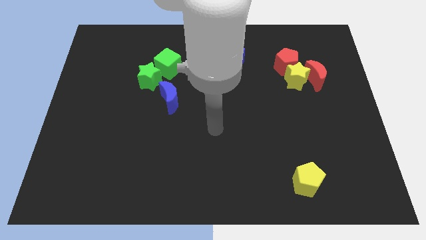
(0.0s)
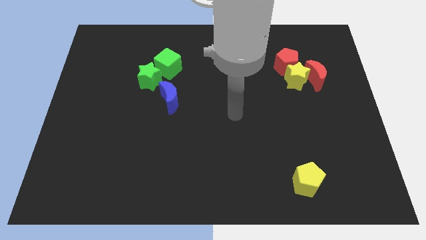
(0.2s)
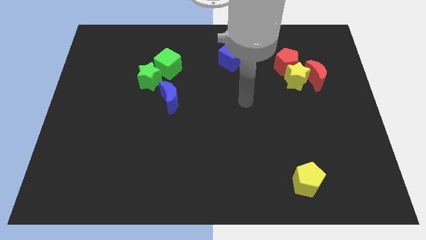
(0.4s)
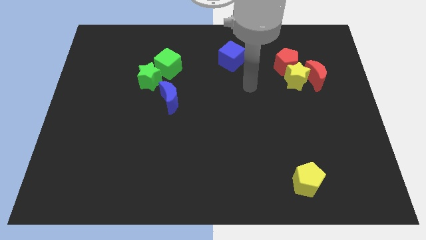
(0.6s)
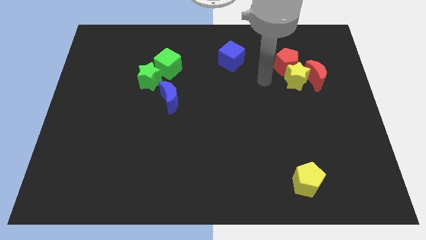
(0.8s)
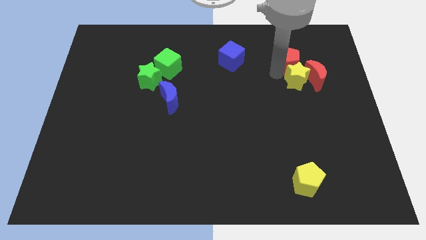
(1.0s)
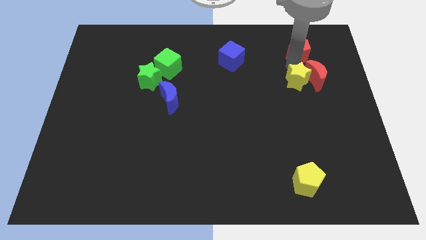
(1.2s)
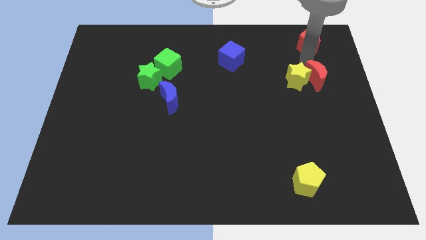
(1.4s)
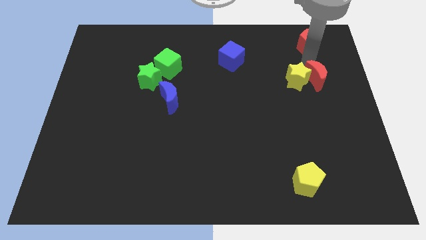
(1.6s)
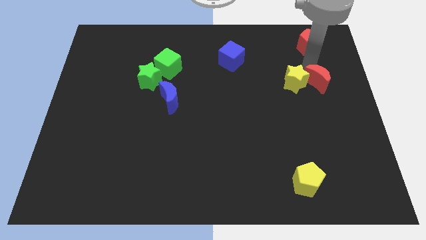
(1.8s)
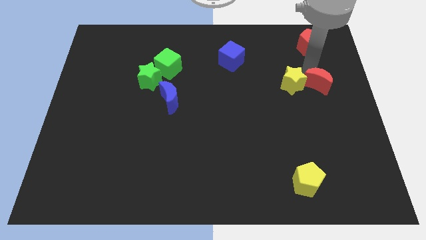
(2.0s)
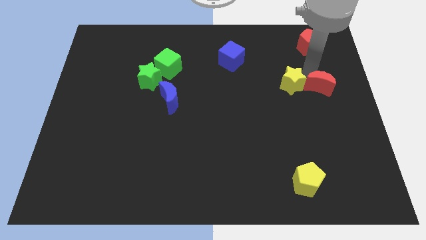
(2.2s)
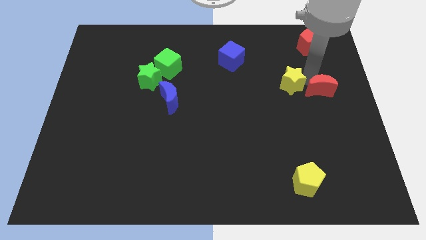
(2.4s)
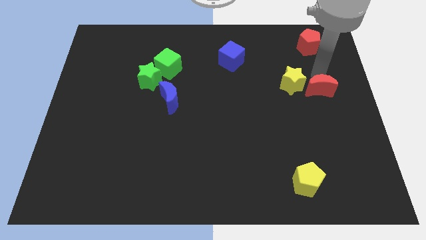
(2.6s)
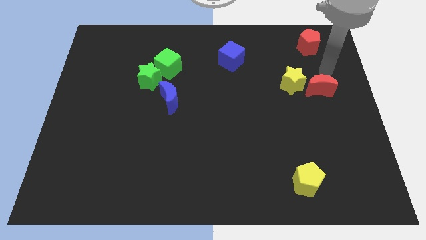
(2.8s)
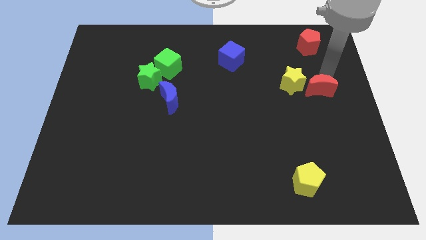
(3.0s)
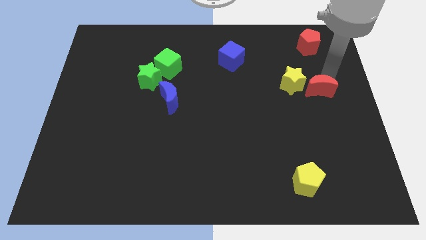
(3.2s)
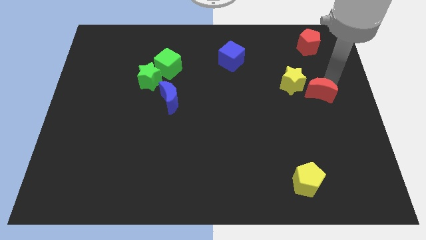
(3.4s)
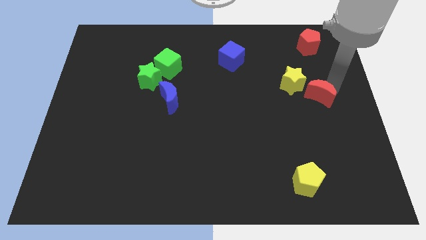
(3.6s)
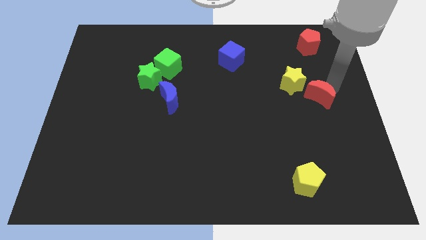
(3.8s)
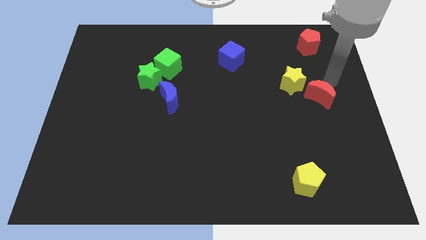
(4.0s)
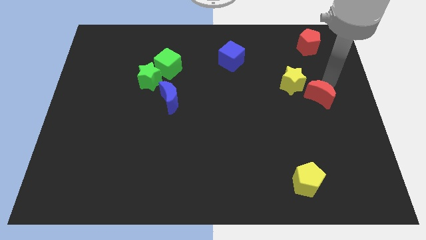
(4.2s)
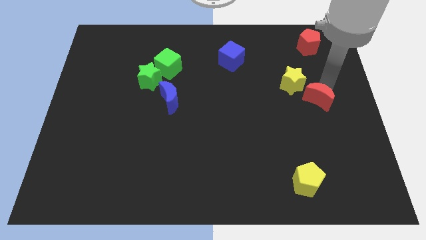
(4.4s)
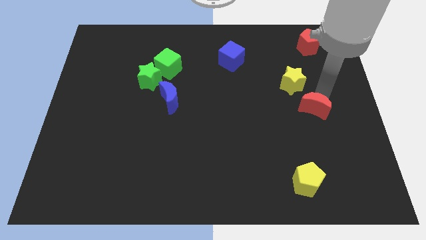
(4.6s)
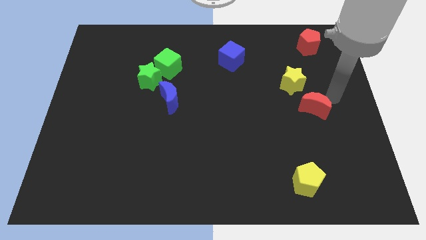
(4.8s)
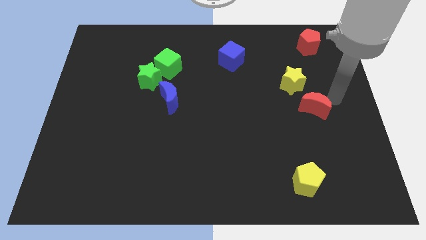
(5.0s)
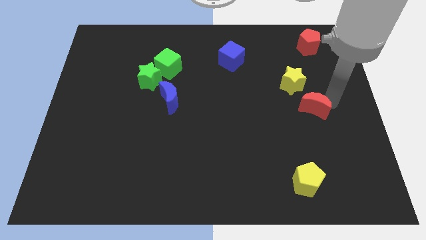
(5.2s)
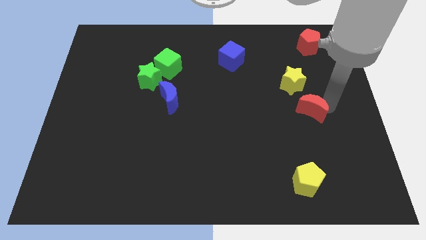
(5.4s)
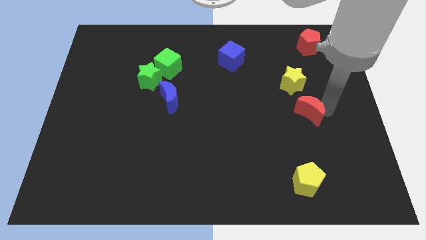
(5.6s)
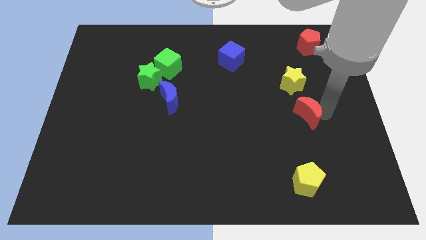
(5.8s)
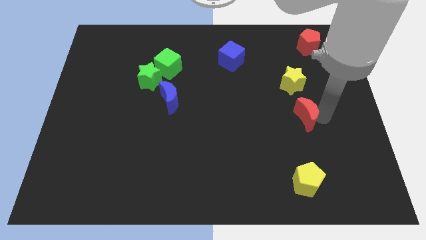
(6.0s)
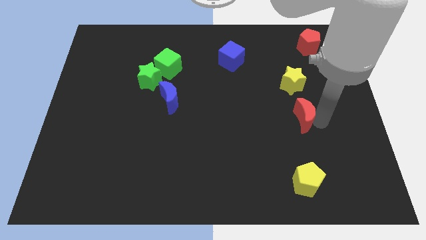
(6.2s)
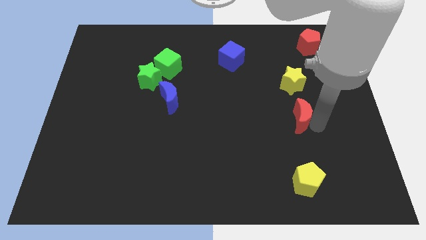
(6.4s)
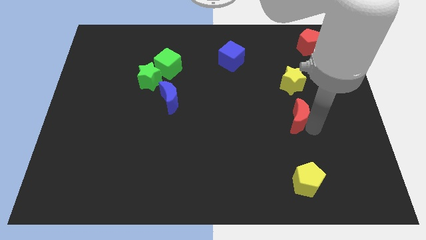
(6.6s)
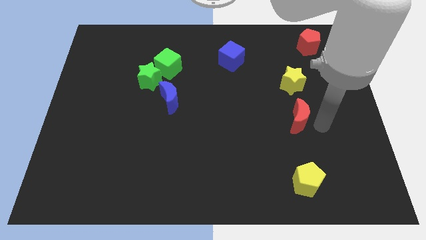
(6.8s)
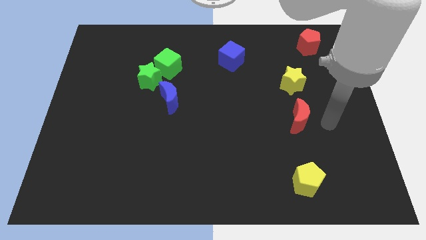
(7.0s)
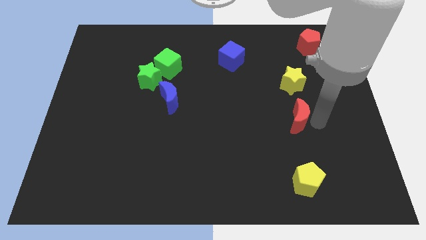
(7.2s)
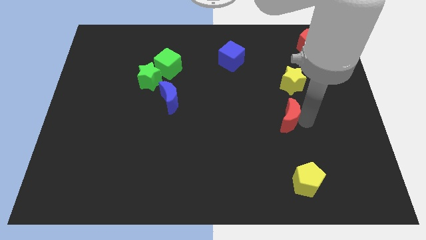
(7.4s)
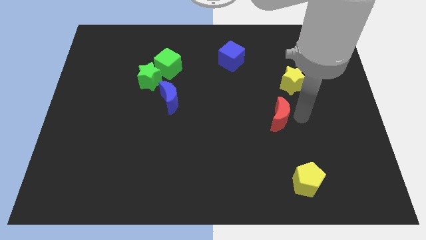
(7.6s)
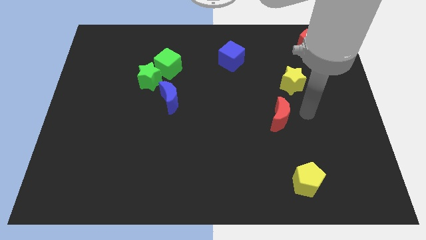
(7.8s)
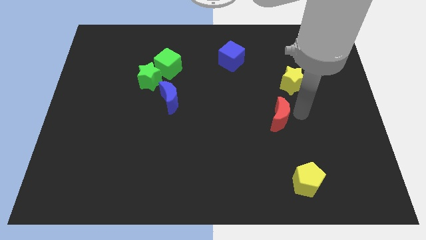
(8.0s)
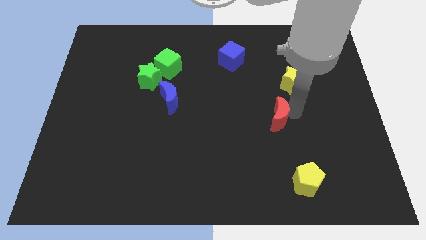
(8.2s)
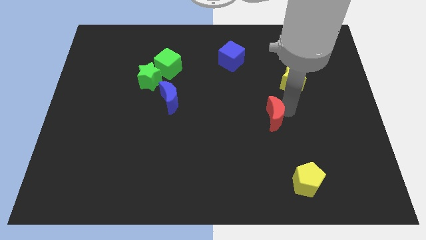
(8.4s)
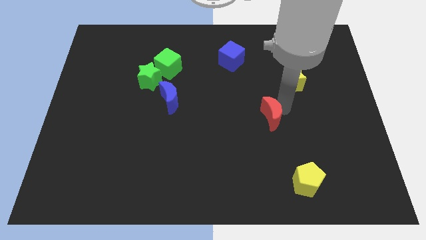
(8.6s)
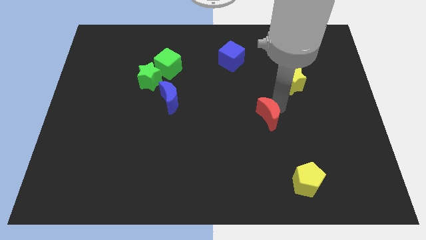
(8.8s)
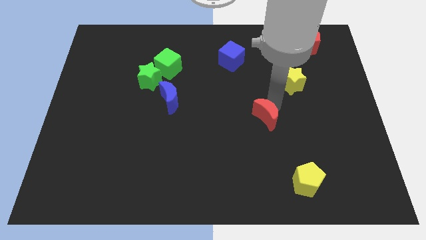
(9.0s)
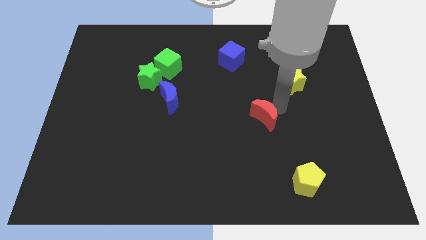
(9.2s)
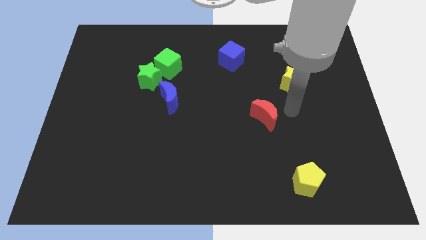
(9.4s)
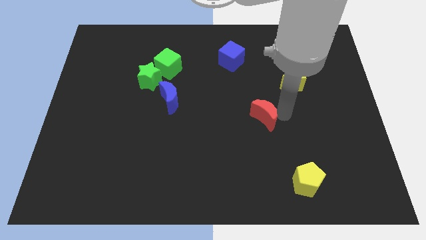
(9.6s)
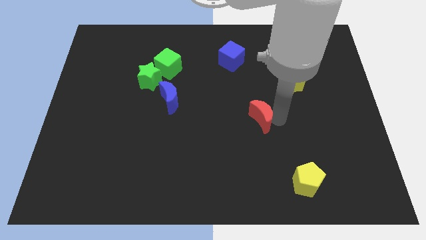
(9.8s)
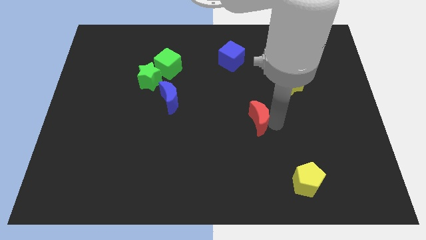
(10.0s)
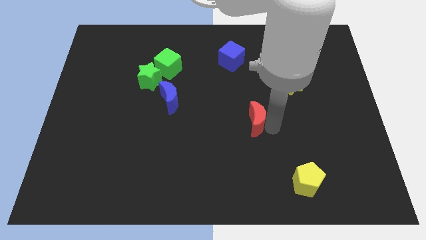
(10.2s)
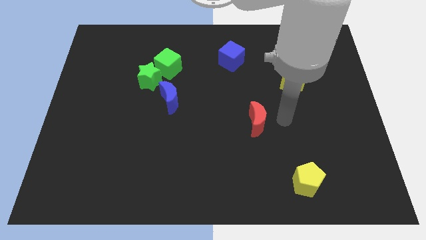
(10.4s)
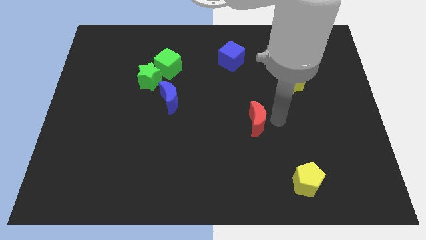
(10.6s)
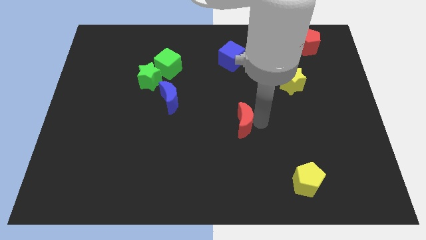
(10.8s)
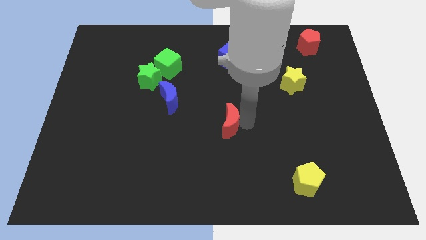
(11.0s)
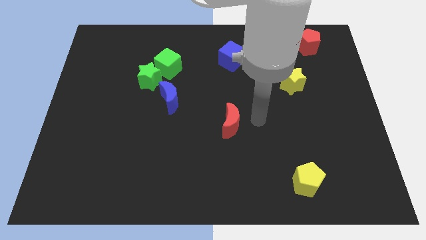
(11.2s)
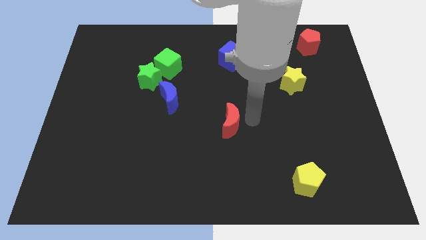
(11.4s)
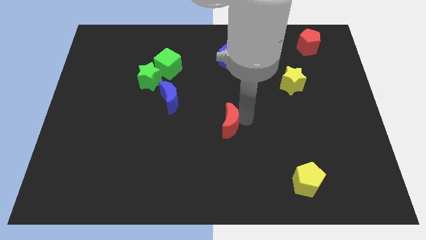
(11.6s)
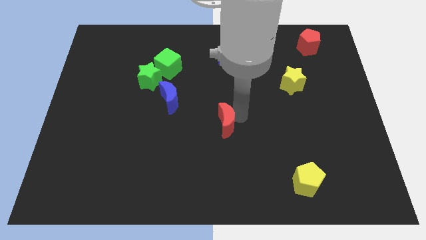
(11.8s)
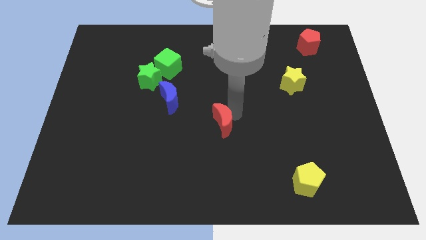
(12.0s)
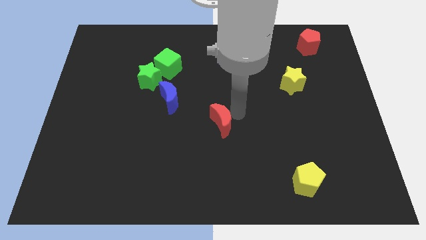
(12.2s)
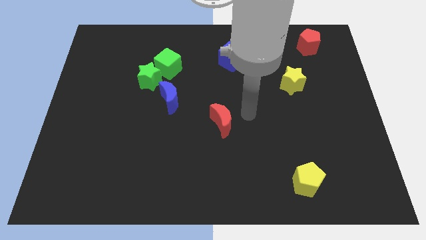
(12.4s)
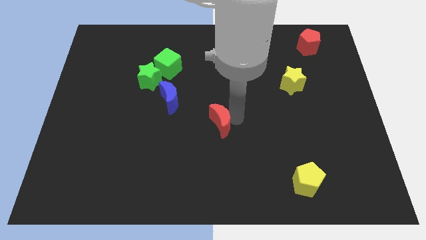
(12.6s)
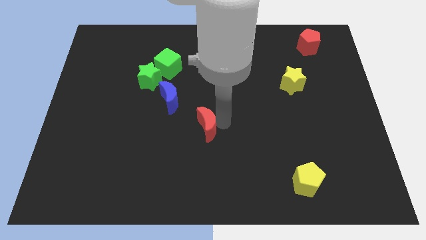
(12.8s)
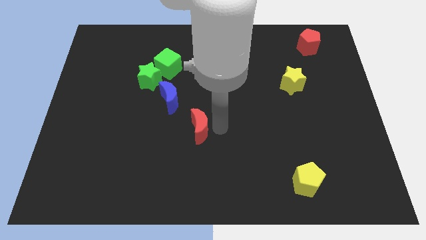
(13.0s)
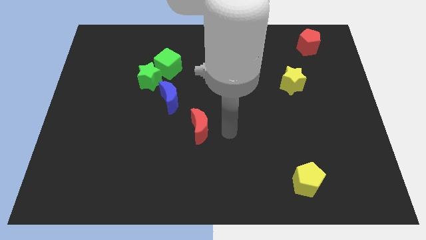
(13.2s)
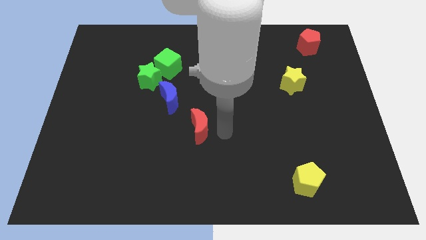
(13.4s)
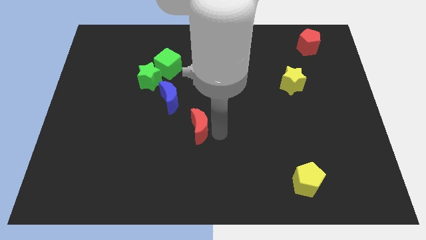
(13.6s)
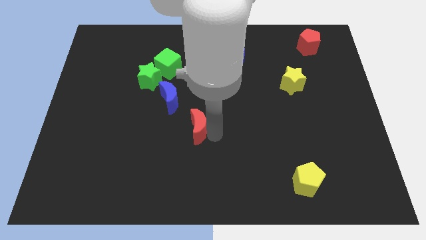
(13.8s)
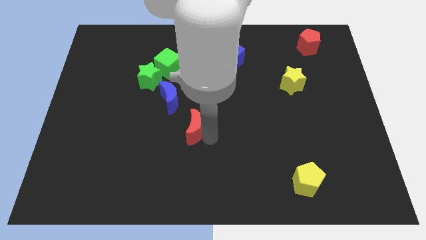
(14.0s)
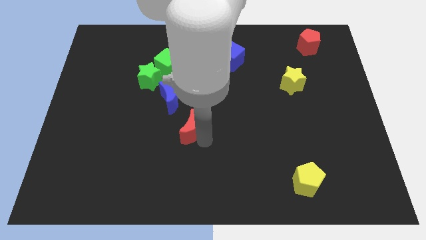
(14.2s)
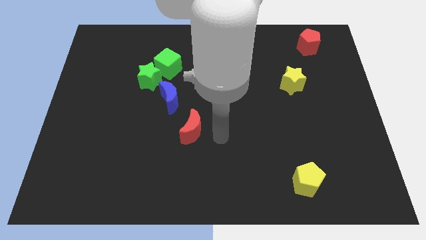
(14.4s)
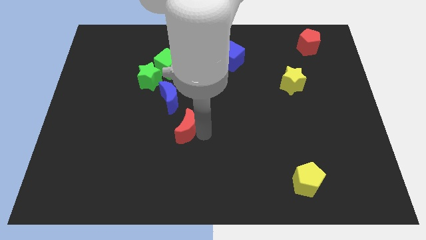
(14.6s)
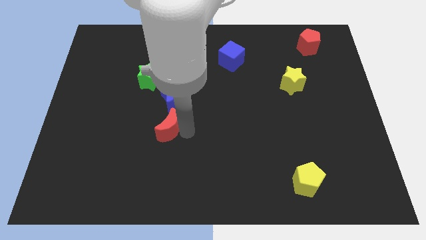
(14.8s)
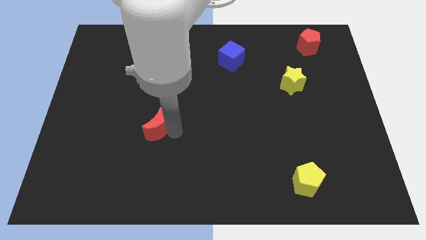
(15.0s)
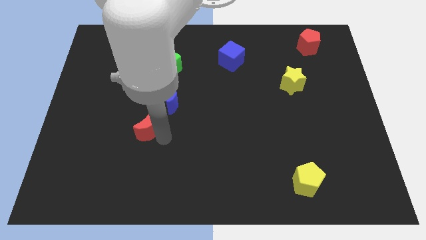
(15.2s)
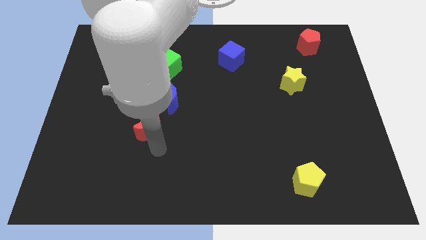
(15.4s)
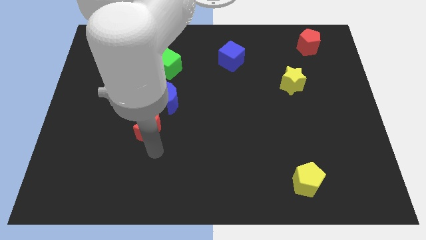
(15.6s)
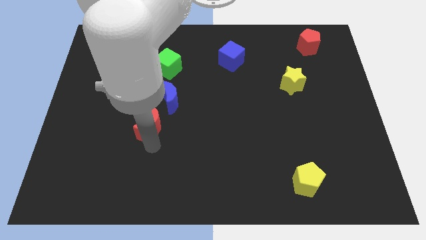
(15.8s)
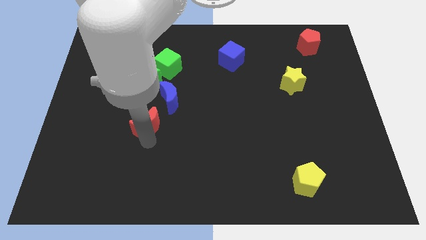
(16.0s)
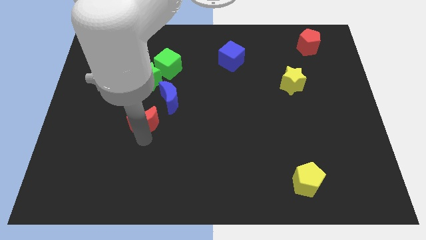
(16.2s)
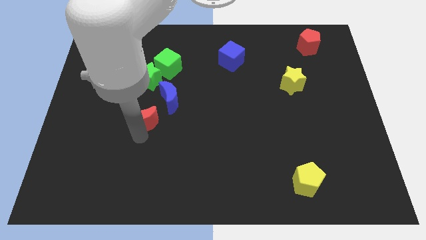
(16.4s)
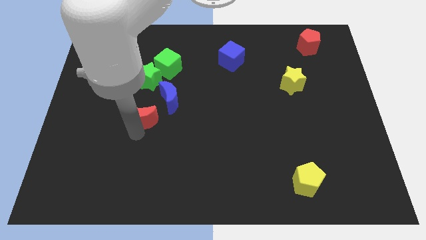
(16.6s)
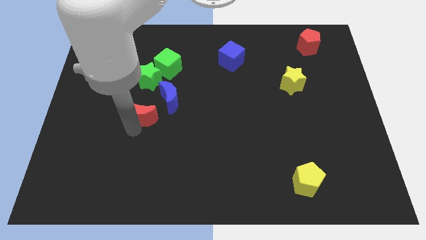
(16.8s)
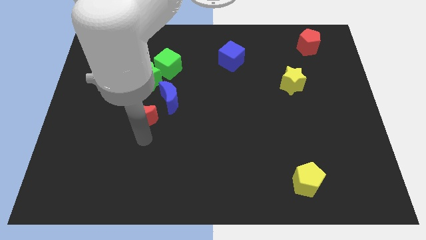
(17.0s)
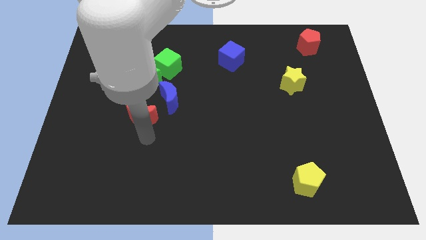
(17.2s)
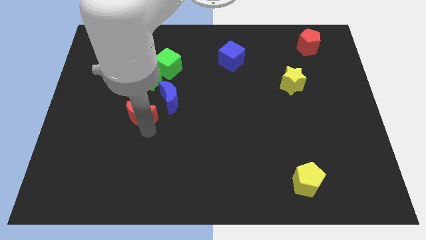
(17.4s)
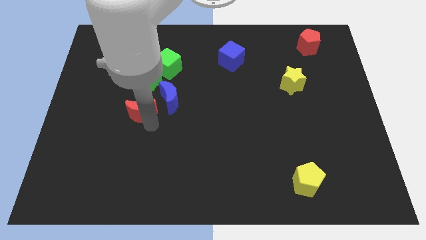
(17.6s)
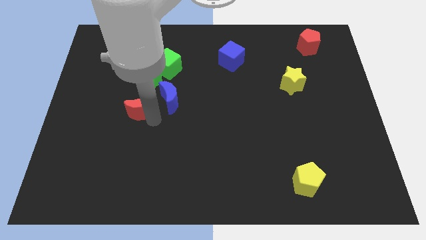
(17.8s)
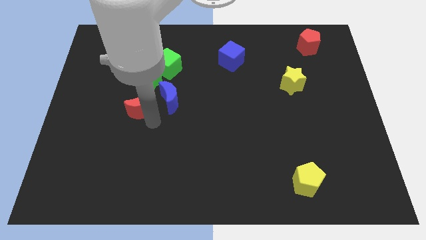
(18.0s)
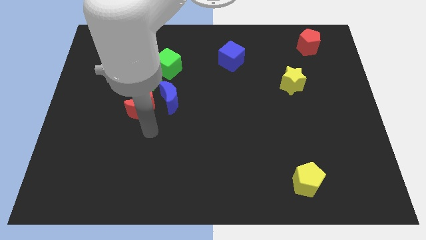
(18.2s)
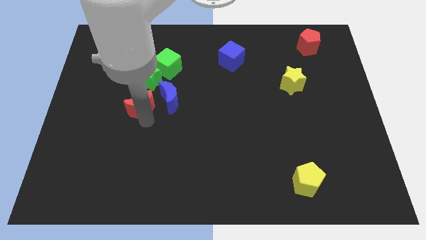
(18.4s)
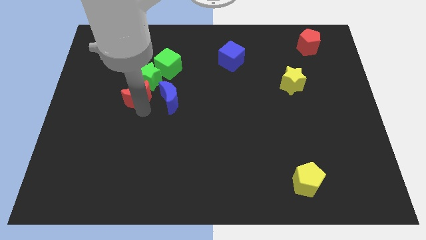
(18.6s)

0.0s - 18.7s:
push the red moon to the bottom left side of the green cube
